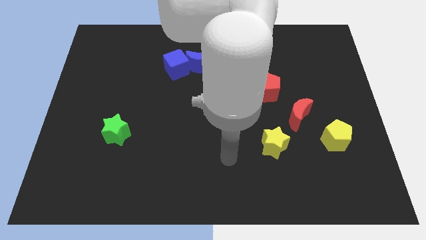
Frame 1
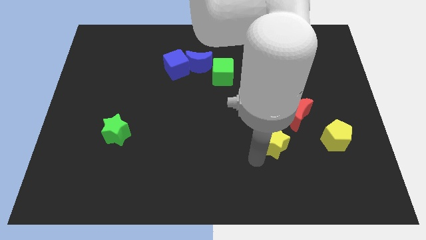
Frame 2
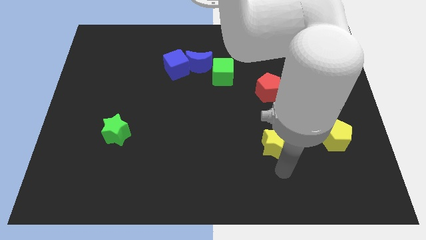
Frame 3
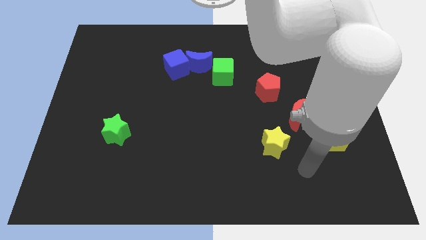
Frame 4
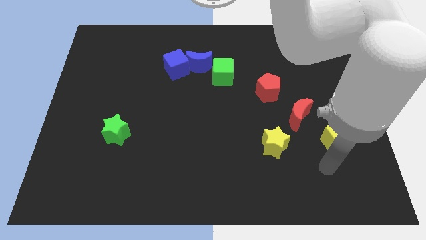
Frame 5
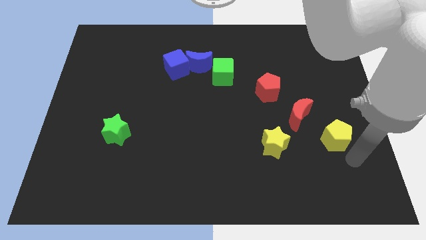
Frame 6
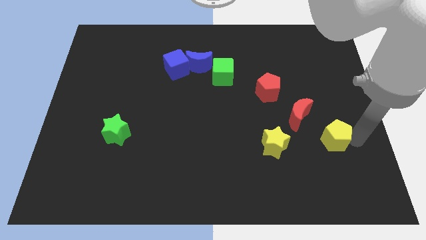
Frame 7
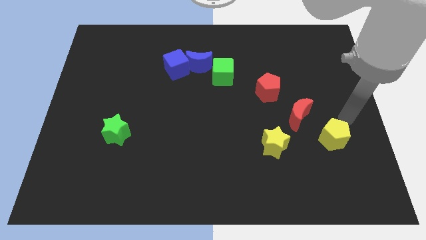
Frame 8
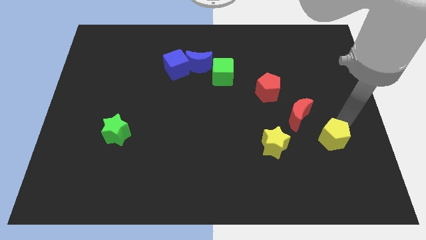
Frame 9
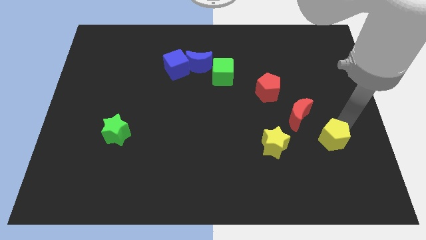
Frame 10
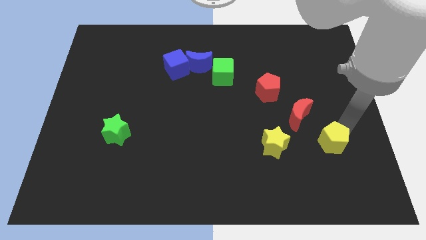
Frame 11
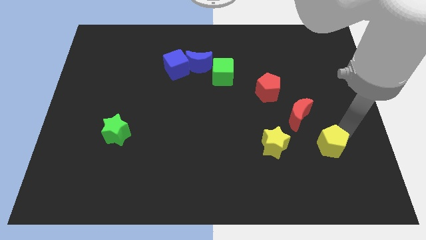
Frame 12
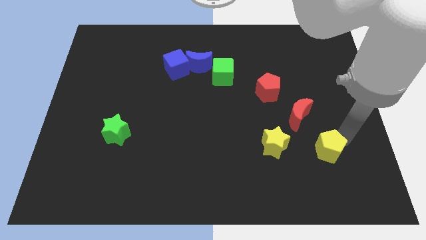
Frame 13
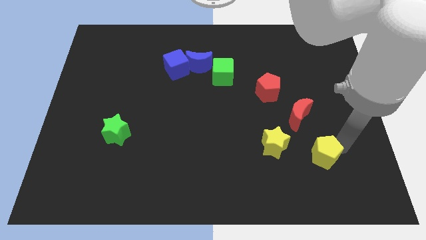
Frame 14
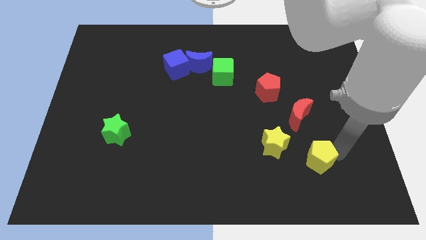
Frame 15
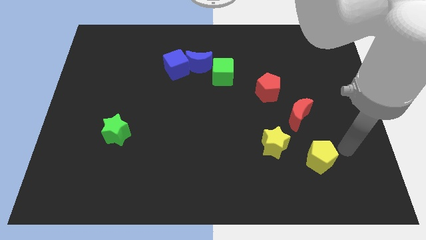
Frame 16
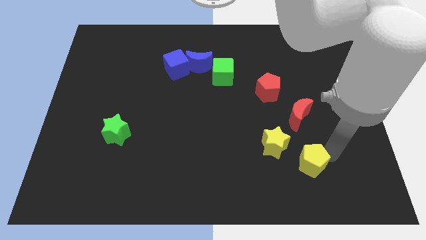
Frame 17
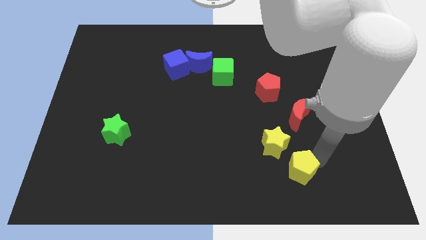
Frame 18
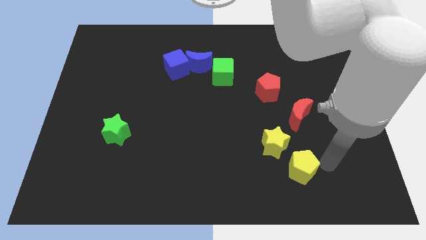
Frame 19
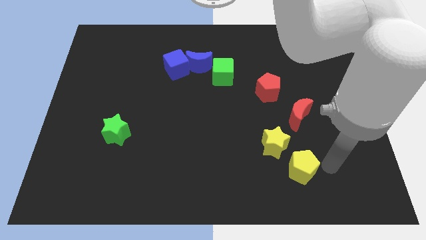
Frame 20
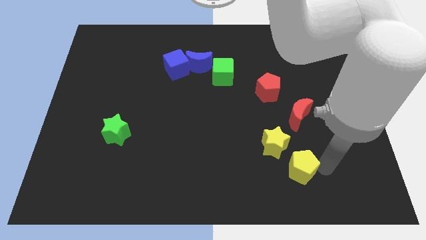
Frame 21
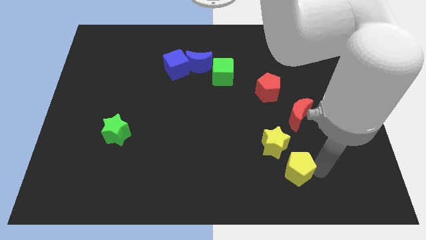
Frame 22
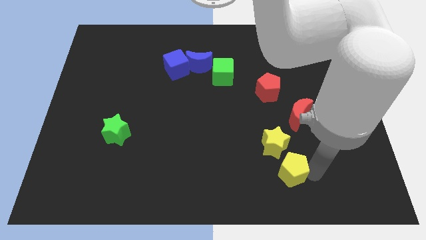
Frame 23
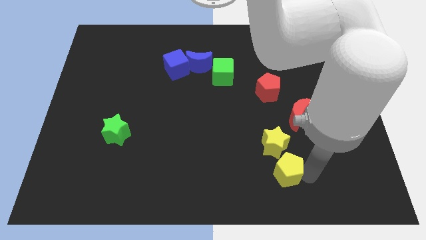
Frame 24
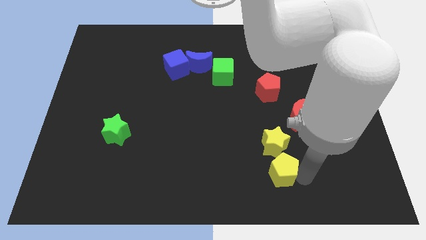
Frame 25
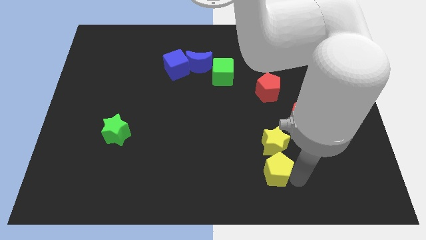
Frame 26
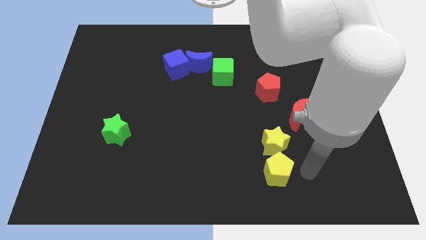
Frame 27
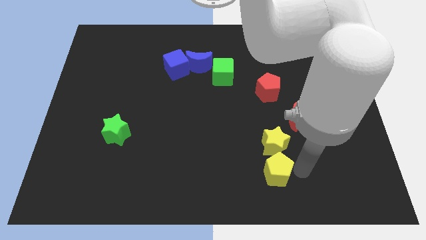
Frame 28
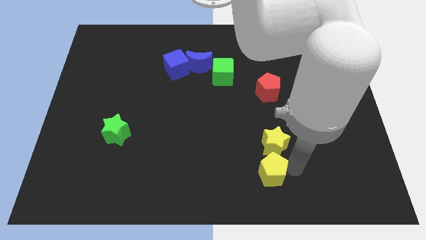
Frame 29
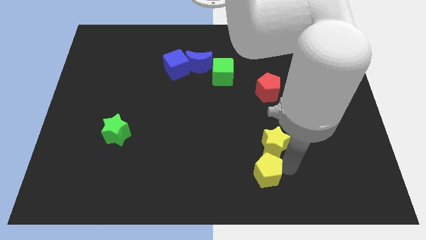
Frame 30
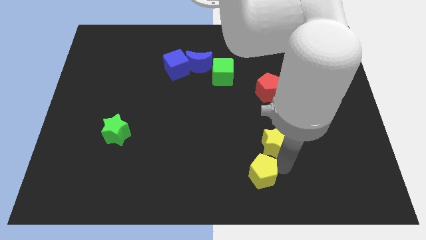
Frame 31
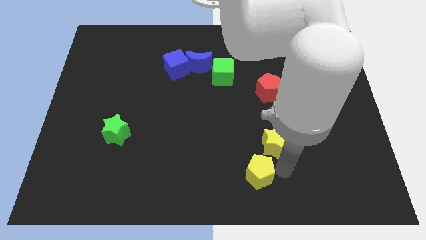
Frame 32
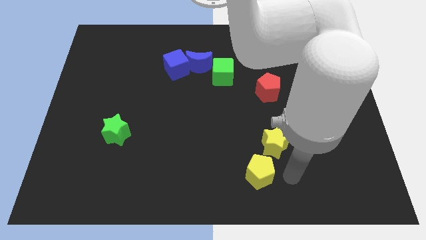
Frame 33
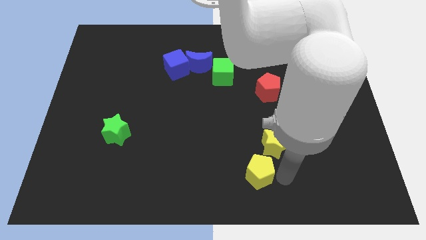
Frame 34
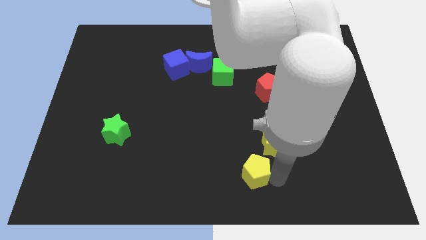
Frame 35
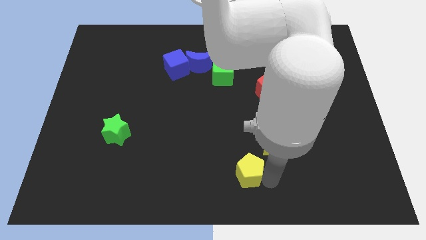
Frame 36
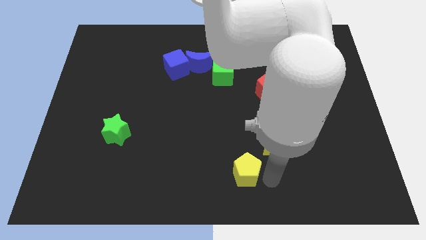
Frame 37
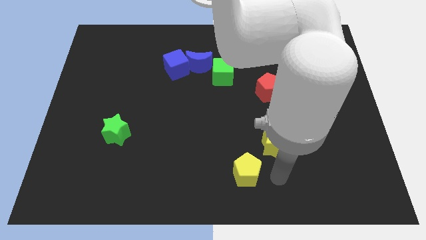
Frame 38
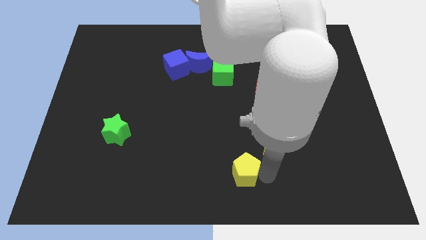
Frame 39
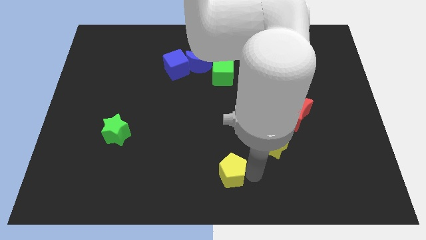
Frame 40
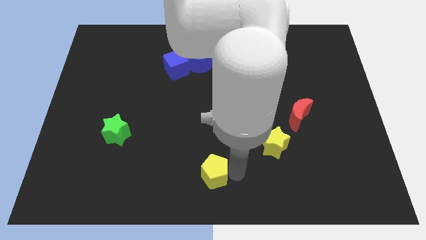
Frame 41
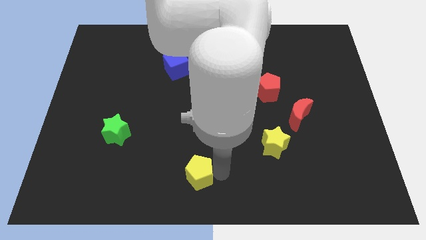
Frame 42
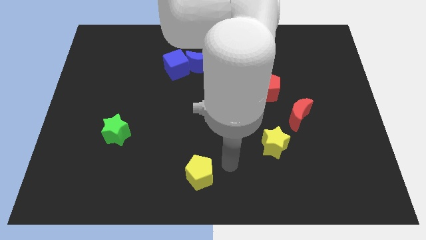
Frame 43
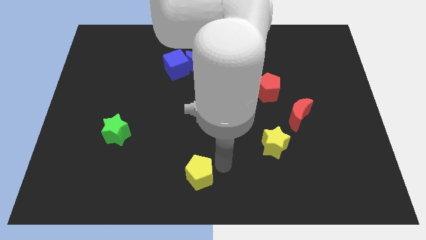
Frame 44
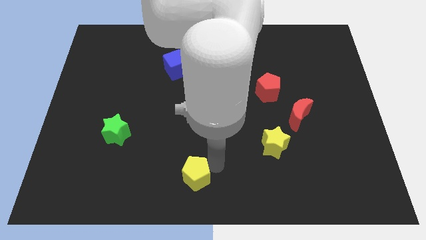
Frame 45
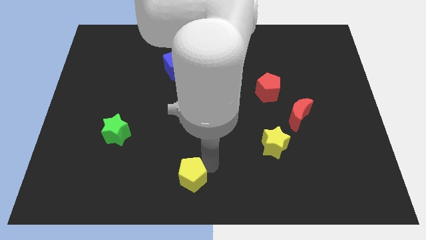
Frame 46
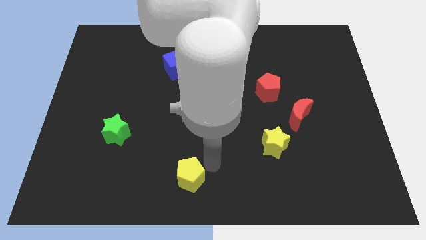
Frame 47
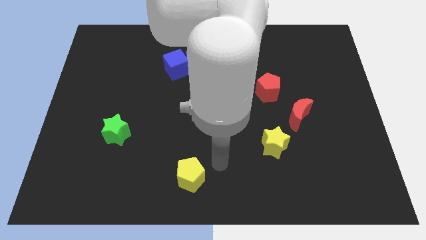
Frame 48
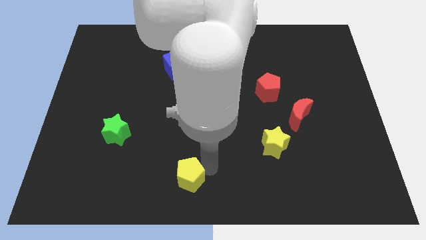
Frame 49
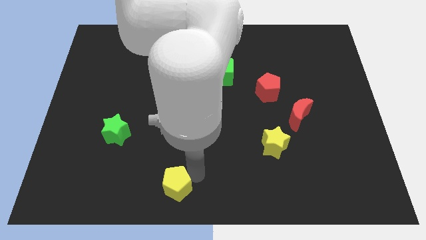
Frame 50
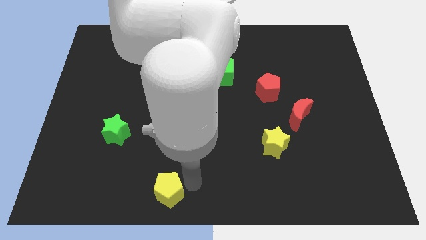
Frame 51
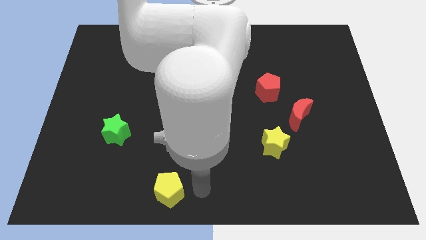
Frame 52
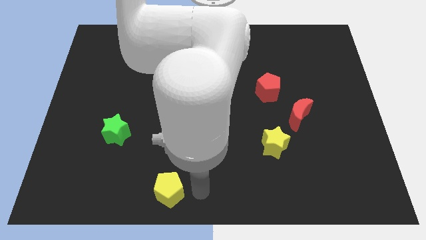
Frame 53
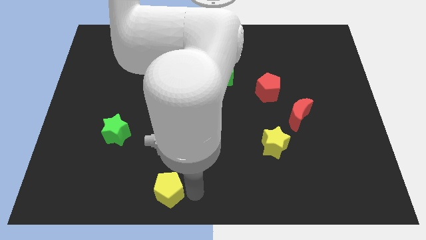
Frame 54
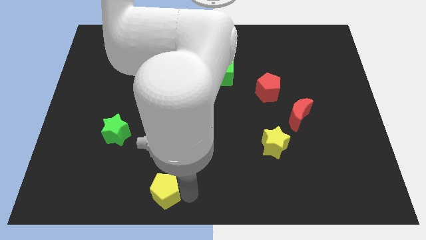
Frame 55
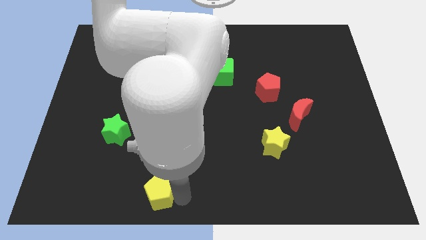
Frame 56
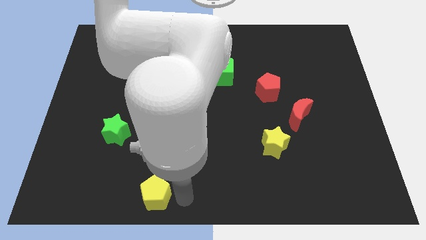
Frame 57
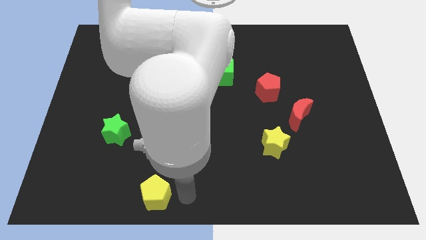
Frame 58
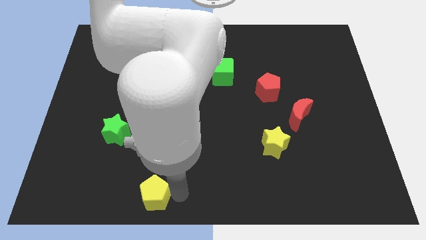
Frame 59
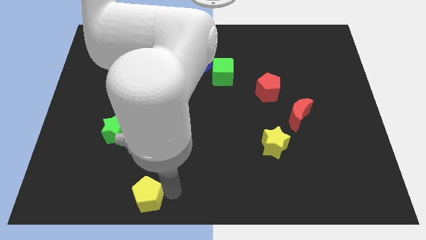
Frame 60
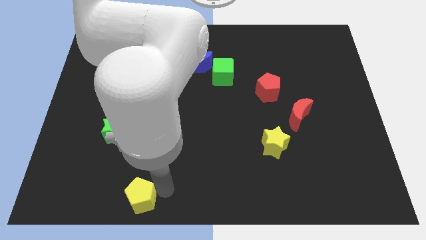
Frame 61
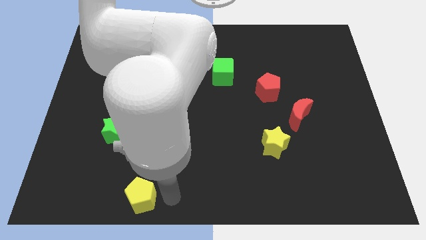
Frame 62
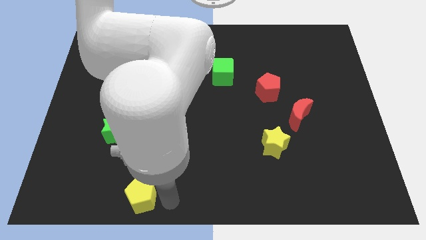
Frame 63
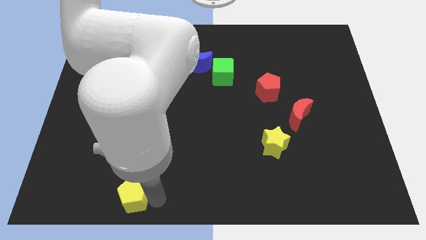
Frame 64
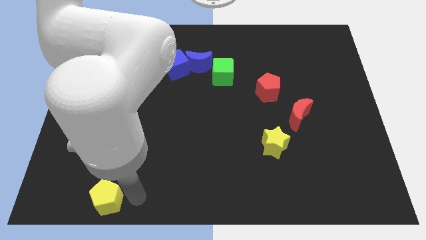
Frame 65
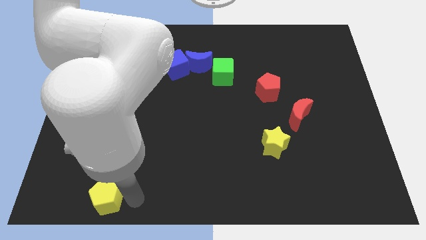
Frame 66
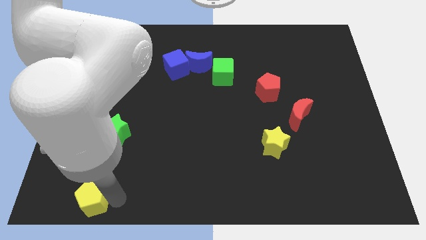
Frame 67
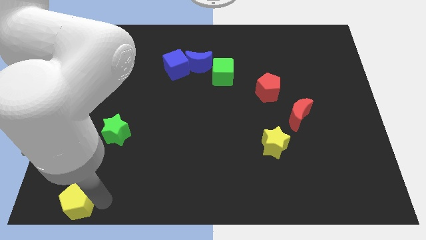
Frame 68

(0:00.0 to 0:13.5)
slide the yellow pentagon to the bottom left corner

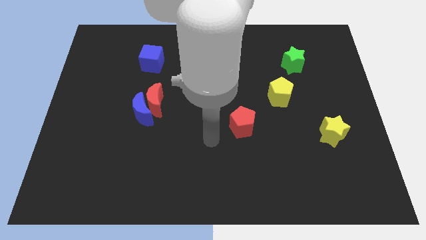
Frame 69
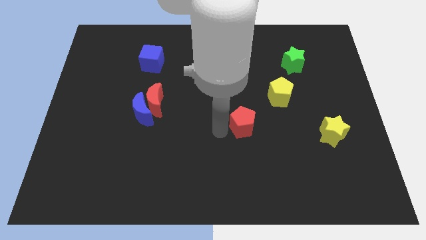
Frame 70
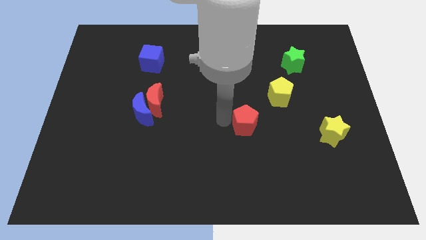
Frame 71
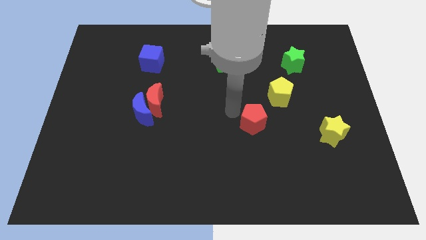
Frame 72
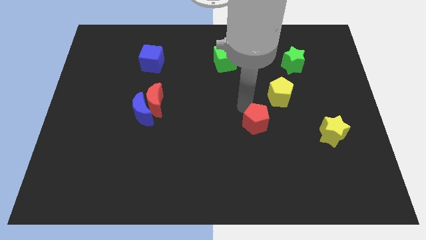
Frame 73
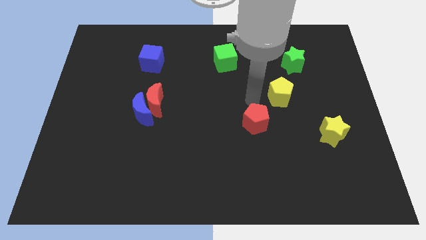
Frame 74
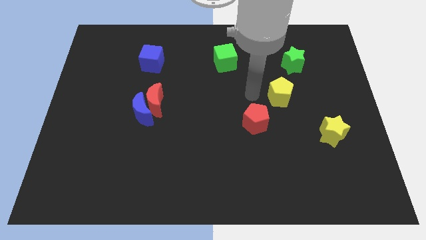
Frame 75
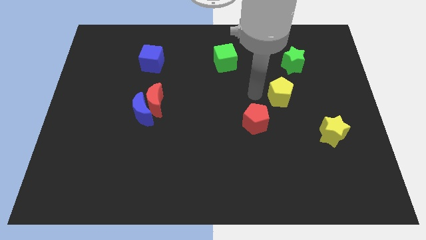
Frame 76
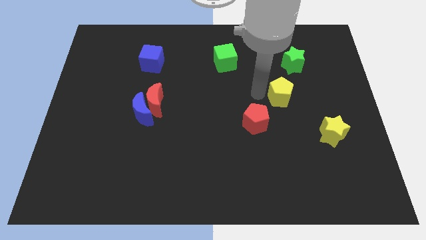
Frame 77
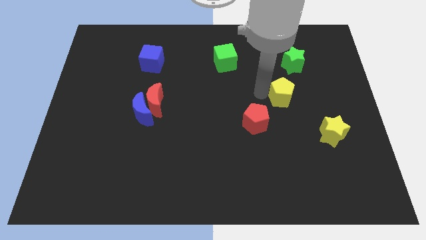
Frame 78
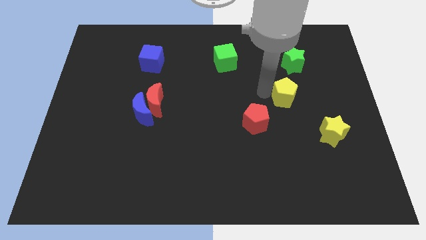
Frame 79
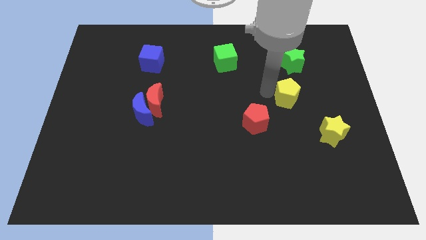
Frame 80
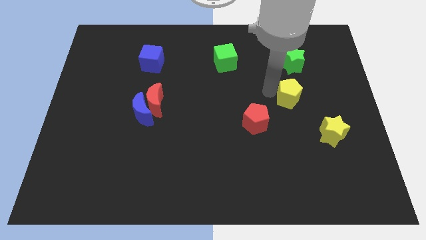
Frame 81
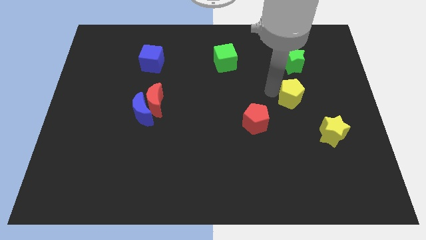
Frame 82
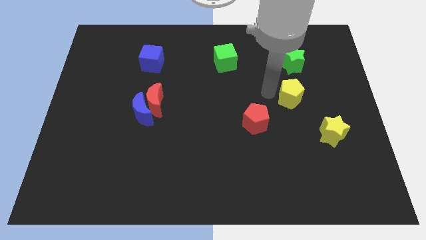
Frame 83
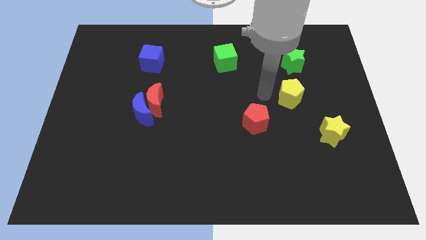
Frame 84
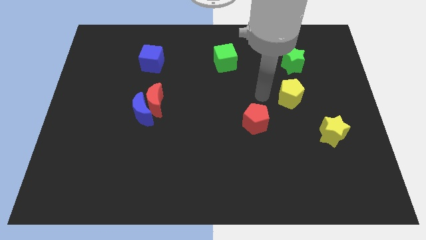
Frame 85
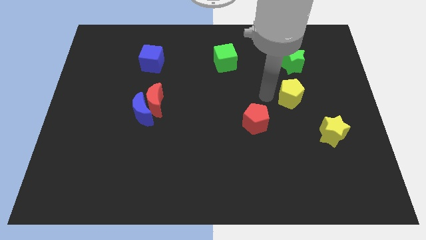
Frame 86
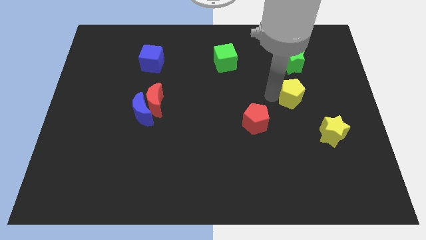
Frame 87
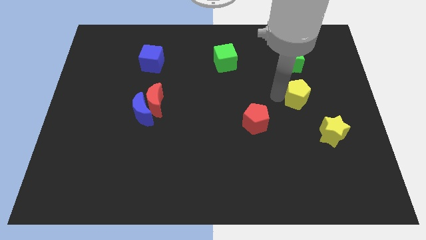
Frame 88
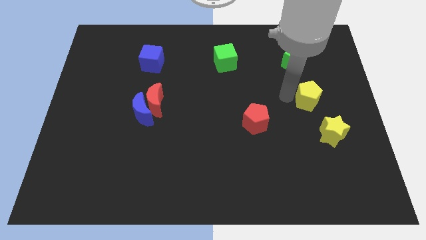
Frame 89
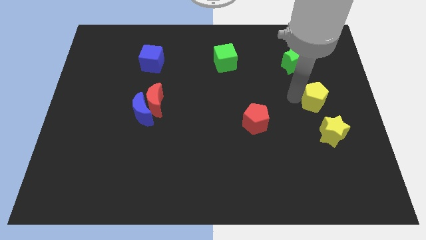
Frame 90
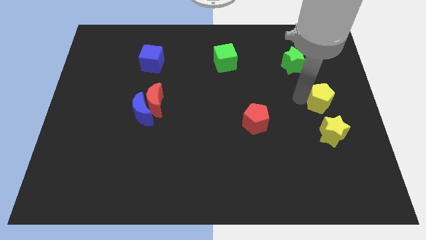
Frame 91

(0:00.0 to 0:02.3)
put the yellow pentagon to the right side
